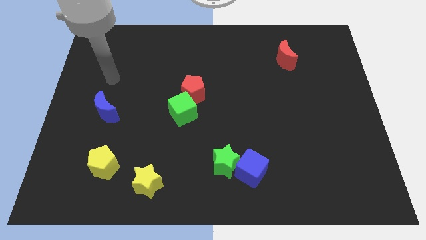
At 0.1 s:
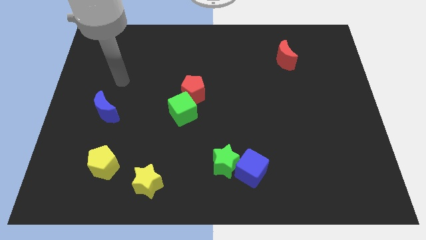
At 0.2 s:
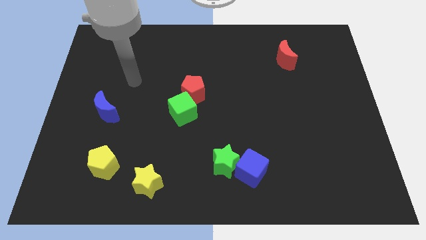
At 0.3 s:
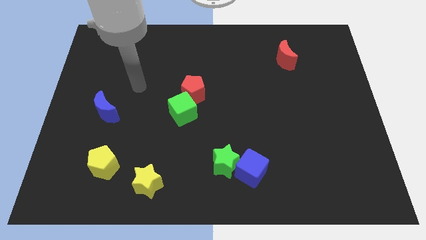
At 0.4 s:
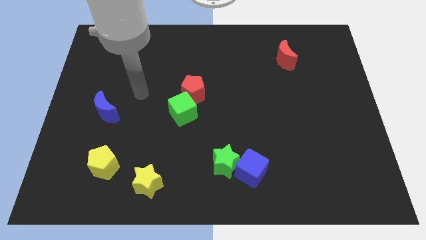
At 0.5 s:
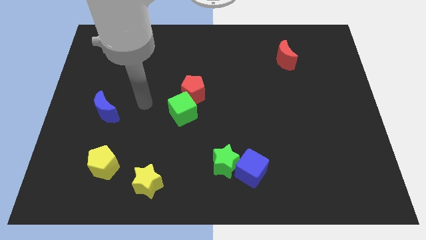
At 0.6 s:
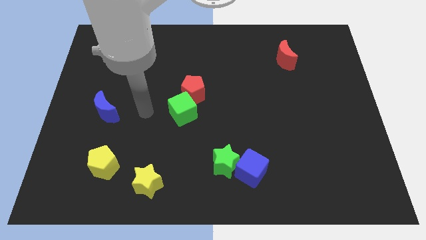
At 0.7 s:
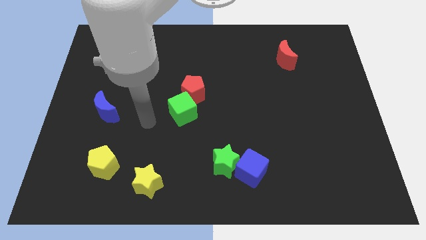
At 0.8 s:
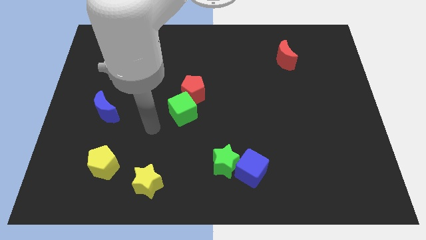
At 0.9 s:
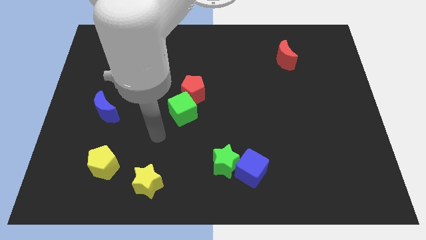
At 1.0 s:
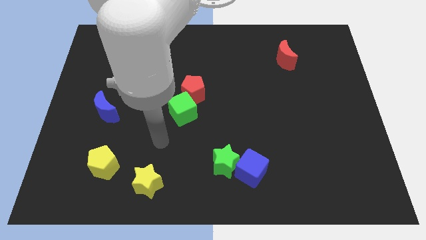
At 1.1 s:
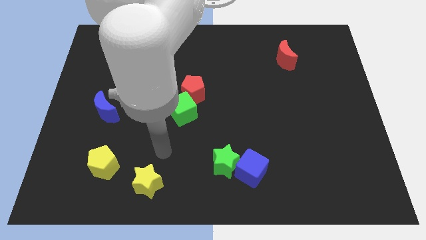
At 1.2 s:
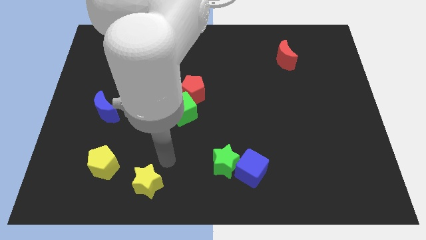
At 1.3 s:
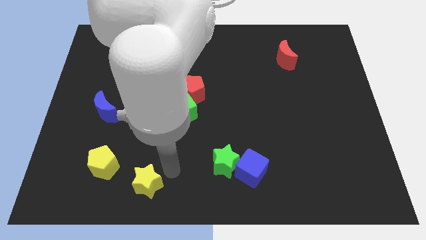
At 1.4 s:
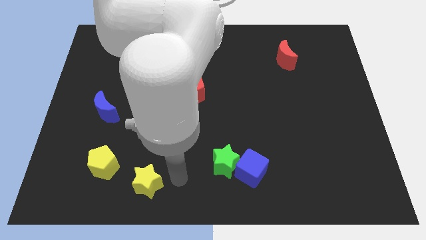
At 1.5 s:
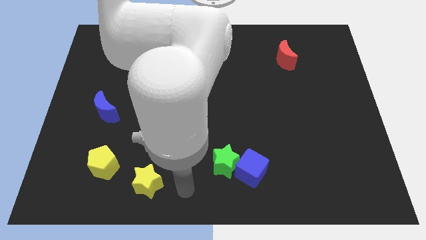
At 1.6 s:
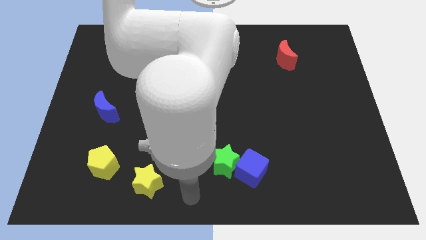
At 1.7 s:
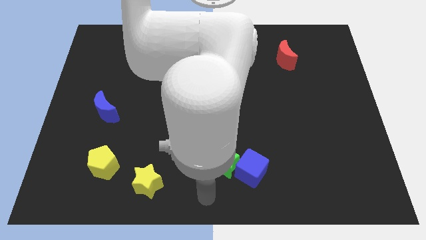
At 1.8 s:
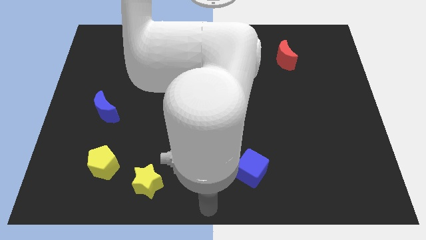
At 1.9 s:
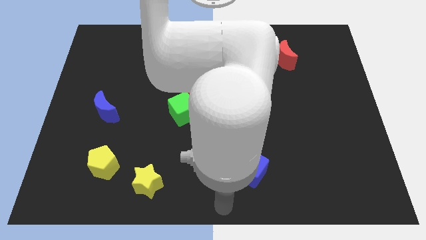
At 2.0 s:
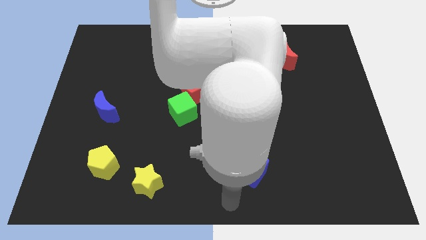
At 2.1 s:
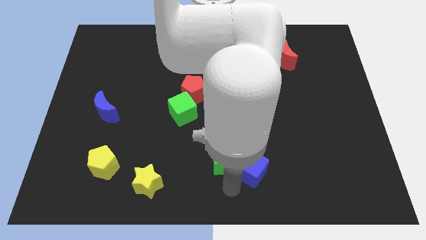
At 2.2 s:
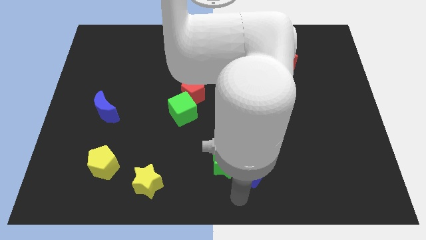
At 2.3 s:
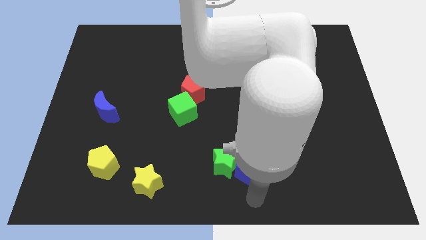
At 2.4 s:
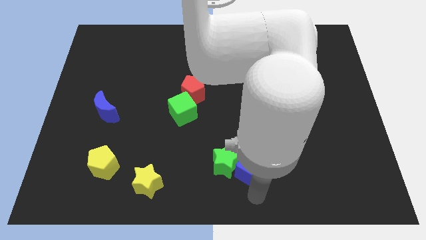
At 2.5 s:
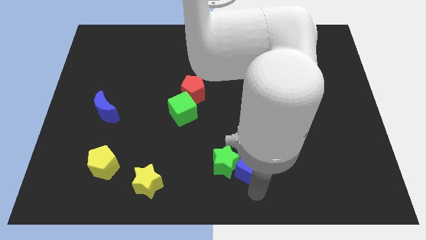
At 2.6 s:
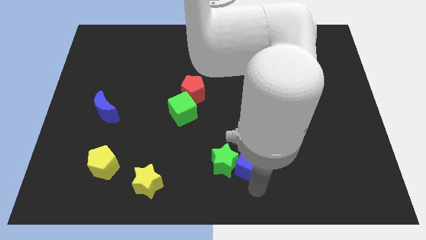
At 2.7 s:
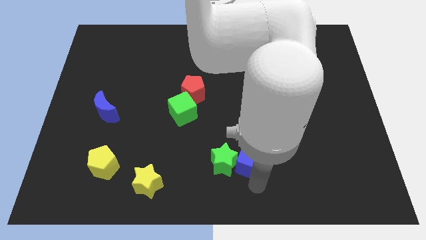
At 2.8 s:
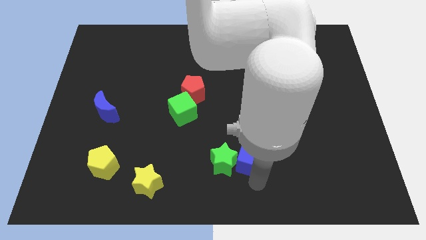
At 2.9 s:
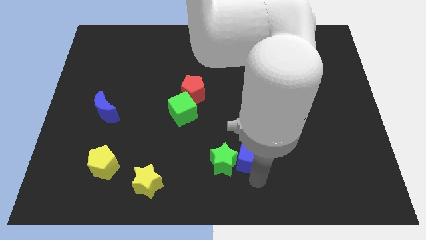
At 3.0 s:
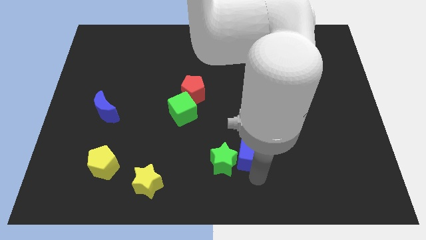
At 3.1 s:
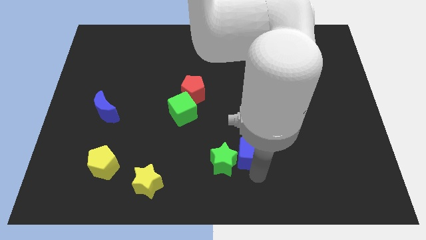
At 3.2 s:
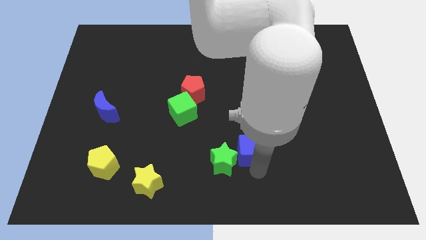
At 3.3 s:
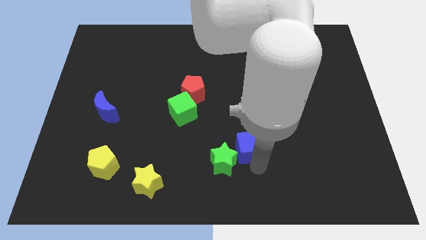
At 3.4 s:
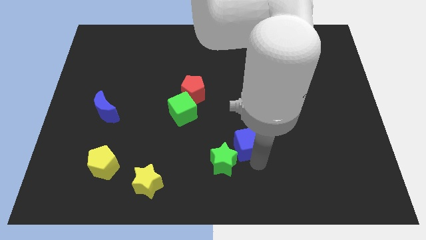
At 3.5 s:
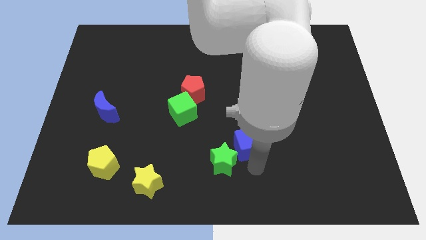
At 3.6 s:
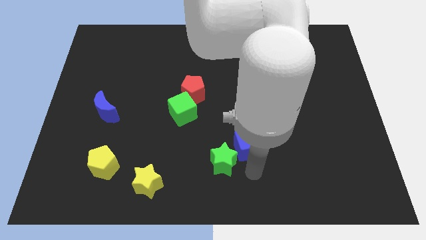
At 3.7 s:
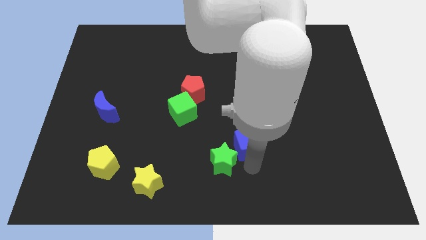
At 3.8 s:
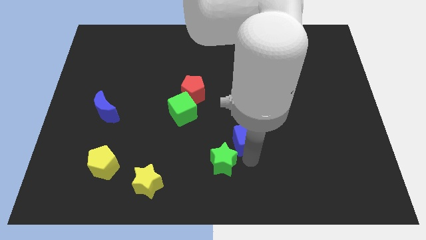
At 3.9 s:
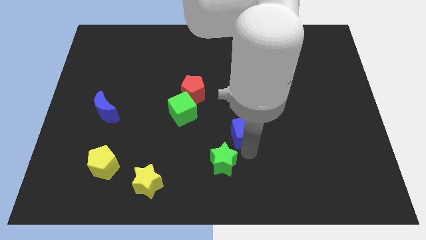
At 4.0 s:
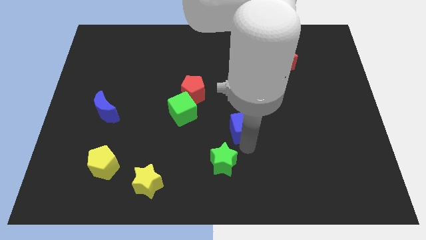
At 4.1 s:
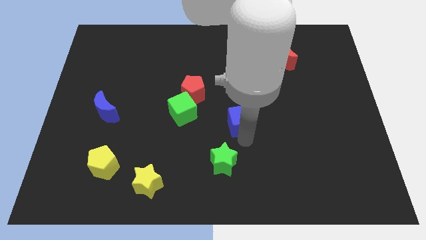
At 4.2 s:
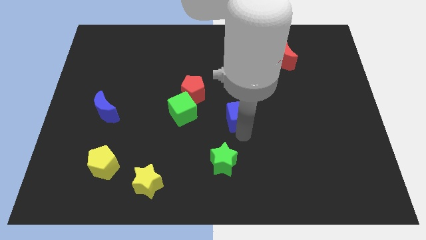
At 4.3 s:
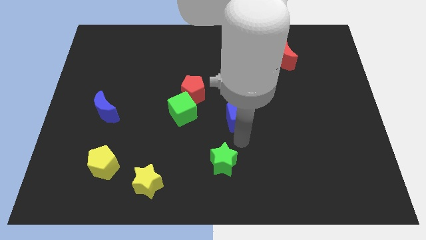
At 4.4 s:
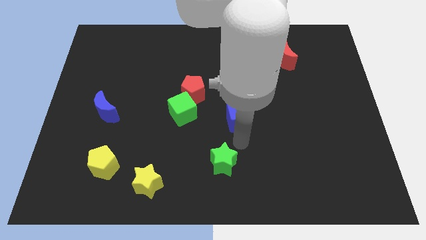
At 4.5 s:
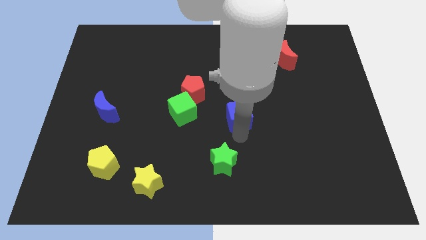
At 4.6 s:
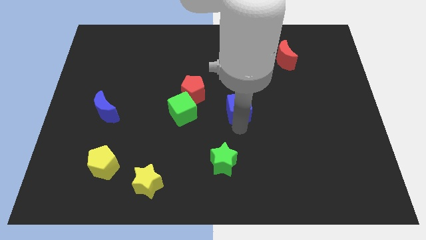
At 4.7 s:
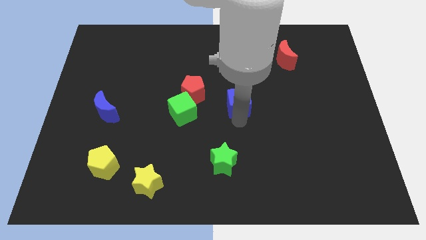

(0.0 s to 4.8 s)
push the blue cube to the right of the red pentagon

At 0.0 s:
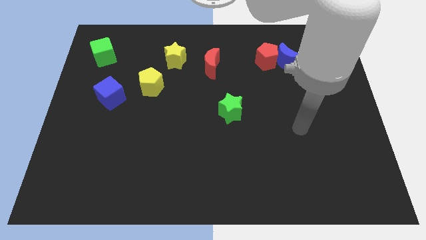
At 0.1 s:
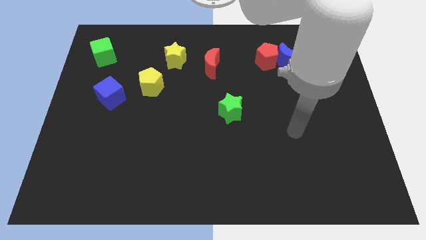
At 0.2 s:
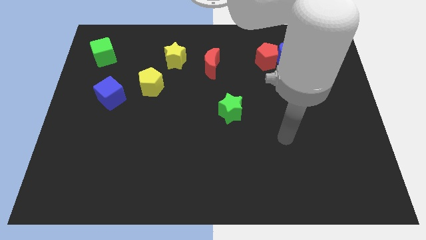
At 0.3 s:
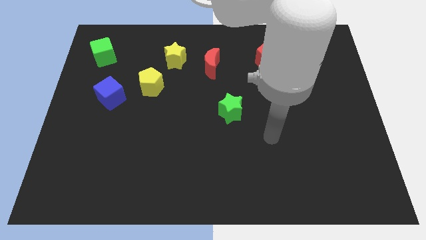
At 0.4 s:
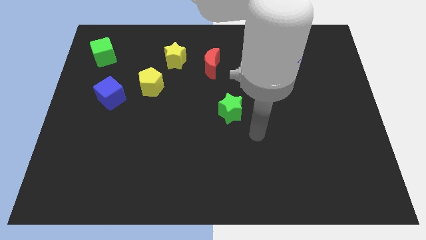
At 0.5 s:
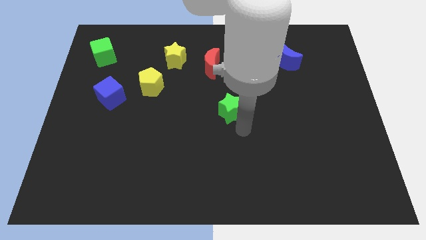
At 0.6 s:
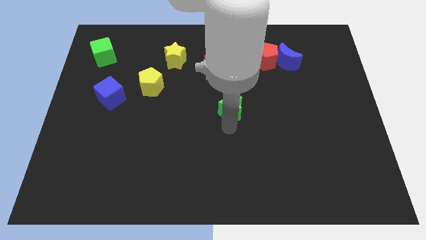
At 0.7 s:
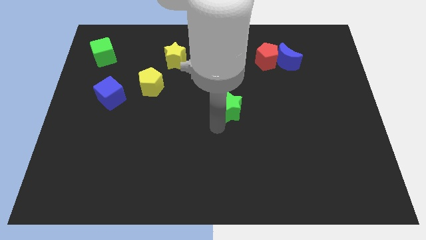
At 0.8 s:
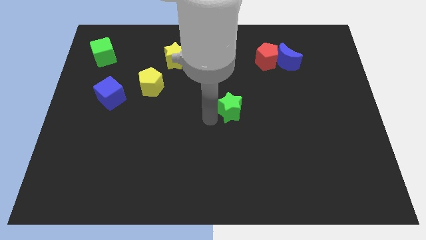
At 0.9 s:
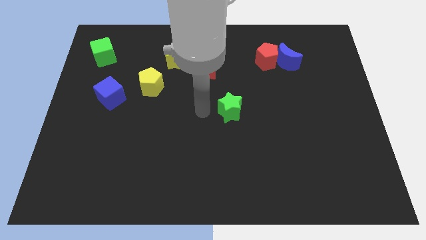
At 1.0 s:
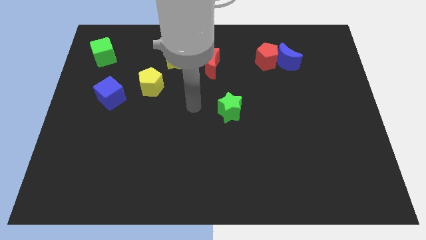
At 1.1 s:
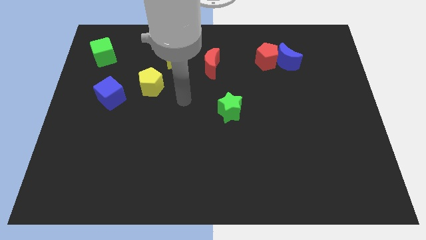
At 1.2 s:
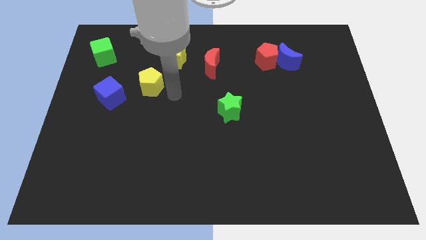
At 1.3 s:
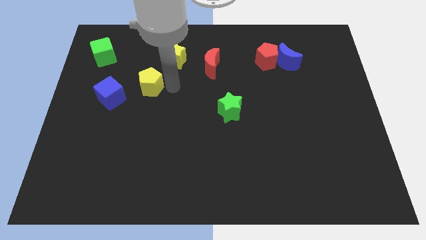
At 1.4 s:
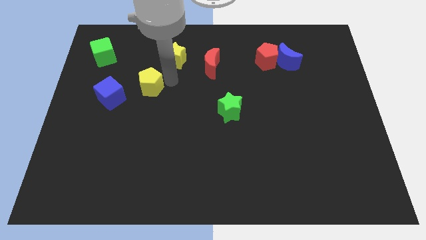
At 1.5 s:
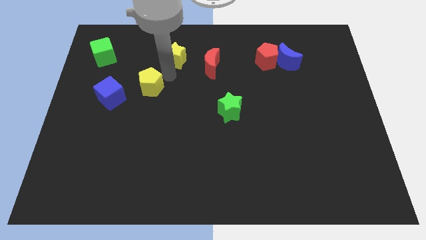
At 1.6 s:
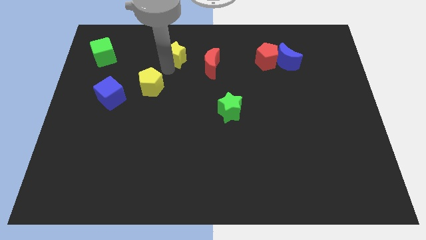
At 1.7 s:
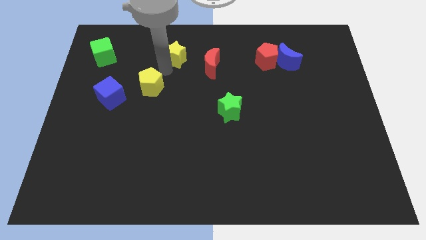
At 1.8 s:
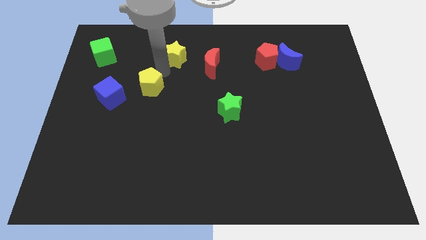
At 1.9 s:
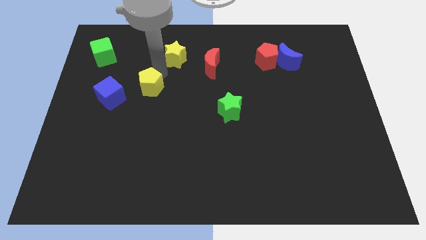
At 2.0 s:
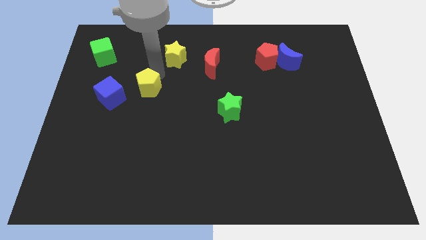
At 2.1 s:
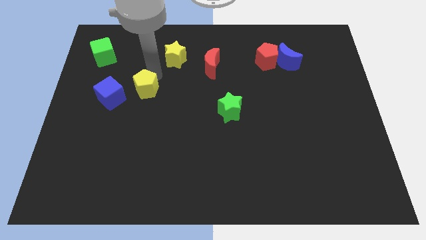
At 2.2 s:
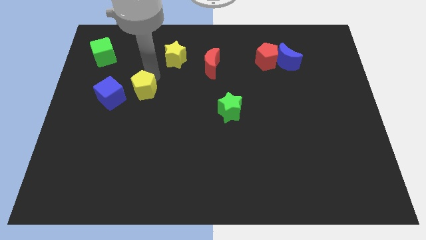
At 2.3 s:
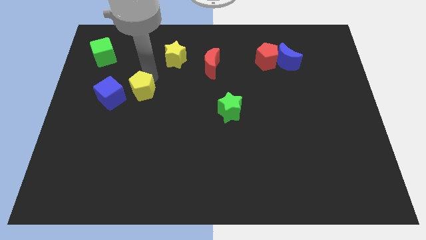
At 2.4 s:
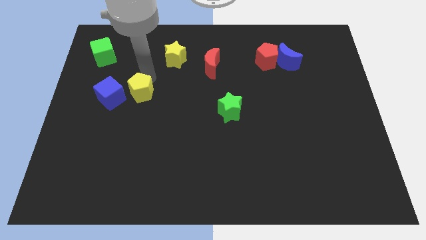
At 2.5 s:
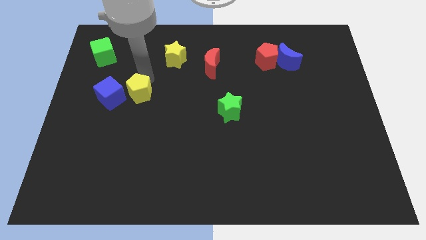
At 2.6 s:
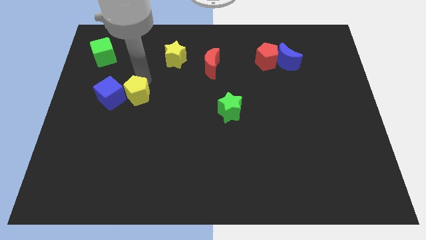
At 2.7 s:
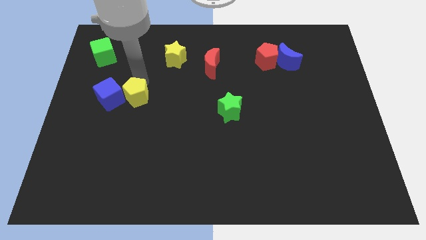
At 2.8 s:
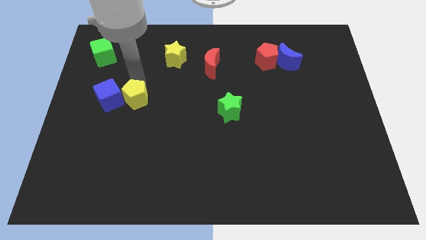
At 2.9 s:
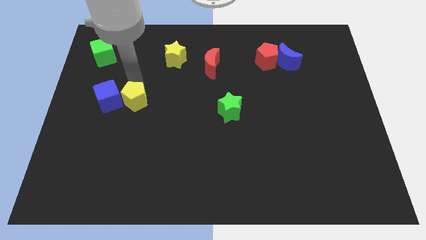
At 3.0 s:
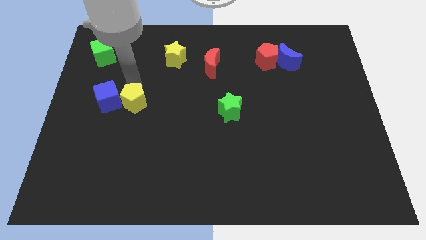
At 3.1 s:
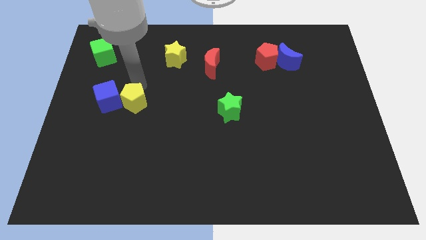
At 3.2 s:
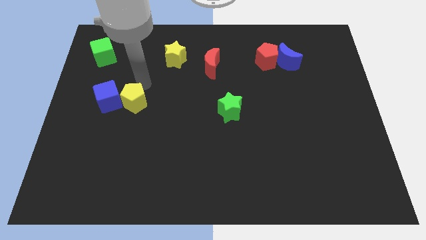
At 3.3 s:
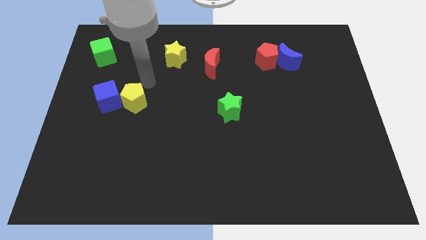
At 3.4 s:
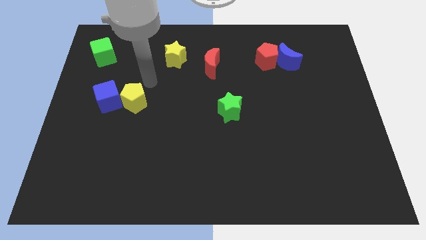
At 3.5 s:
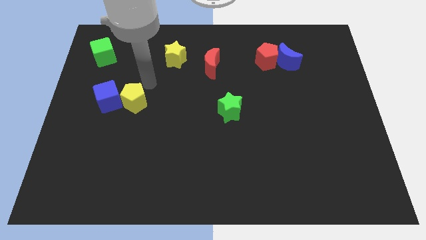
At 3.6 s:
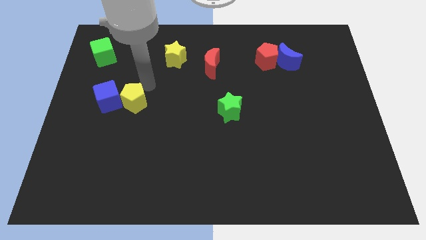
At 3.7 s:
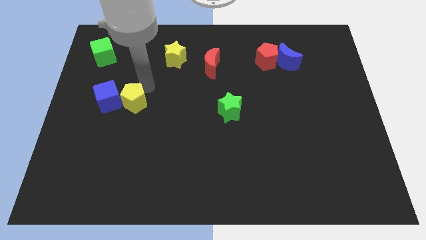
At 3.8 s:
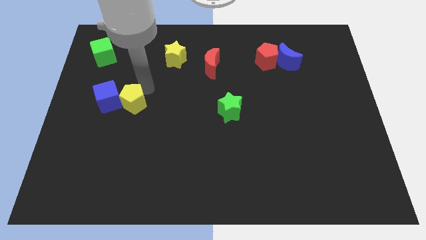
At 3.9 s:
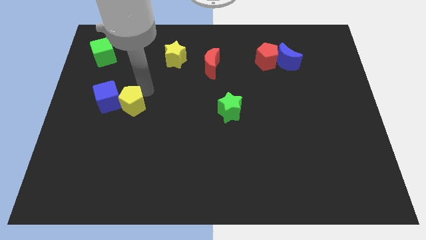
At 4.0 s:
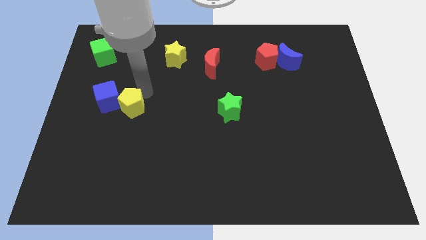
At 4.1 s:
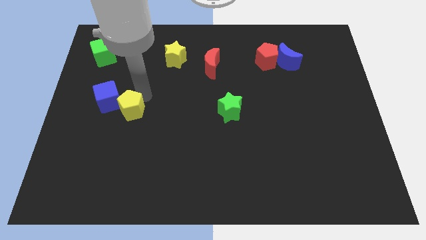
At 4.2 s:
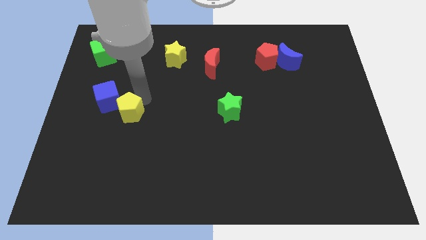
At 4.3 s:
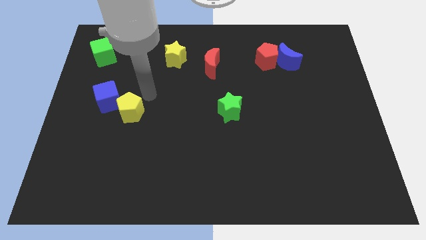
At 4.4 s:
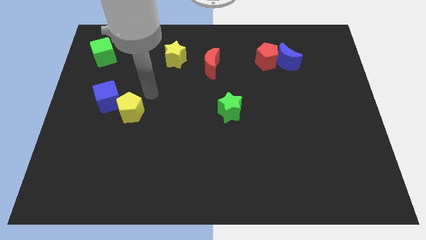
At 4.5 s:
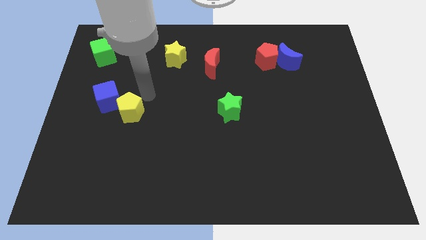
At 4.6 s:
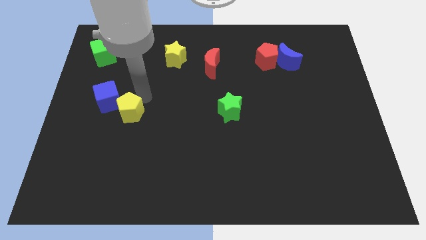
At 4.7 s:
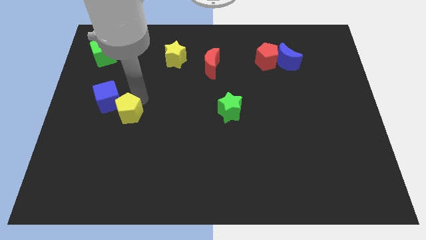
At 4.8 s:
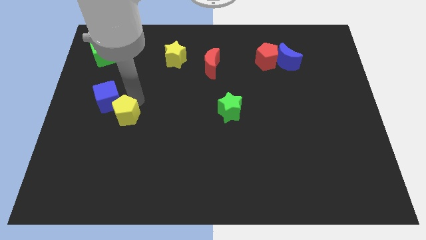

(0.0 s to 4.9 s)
slide the yellow pentagon to the bottom of the blue cube
